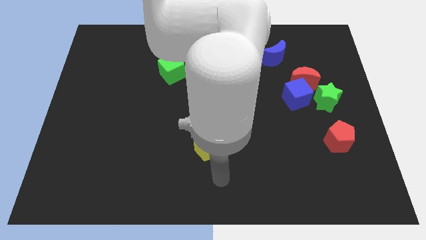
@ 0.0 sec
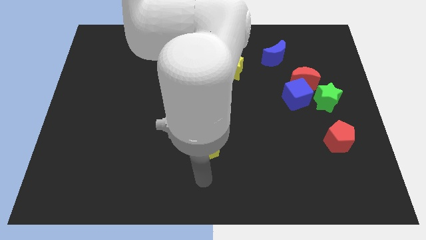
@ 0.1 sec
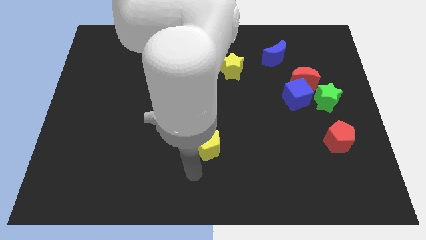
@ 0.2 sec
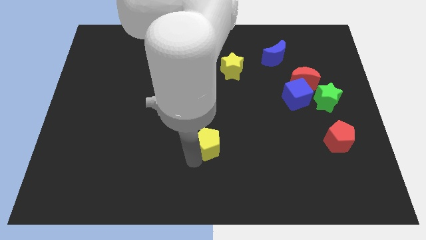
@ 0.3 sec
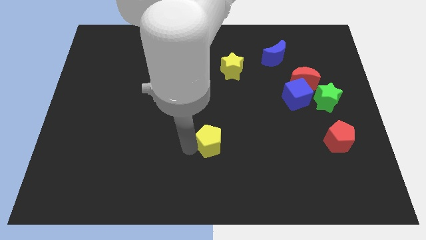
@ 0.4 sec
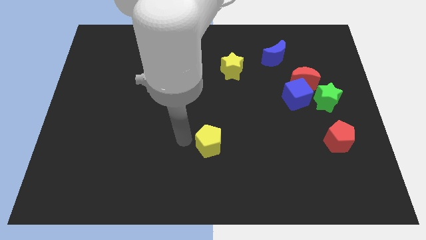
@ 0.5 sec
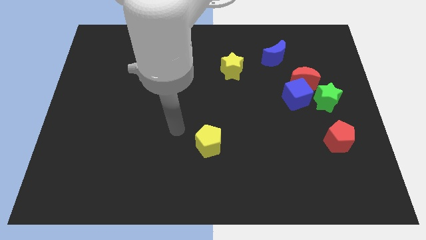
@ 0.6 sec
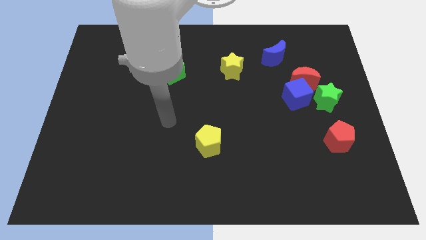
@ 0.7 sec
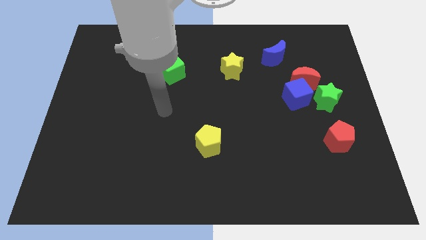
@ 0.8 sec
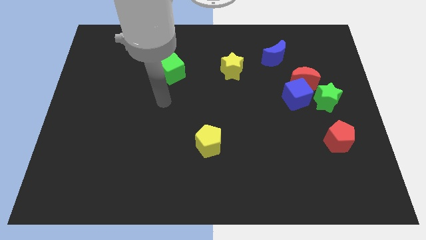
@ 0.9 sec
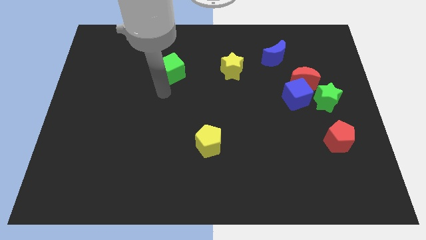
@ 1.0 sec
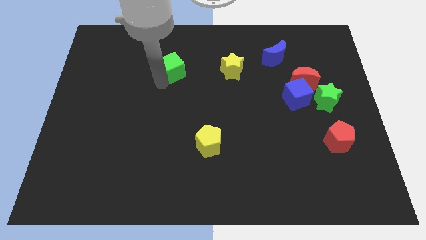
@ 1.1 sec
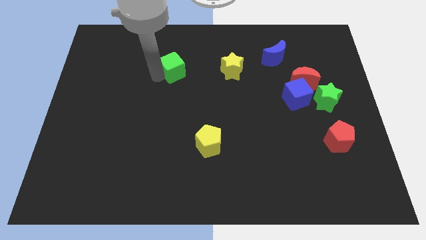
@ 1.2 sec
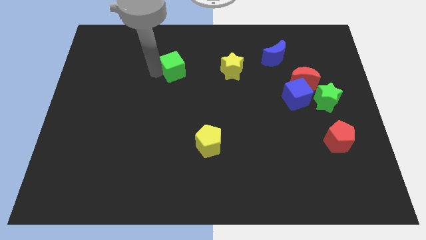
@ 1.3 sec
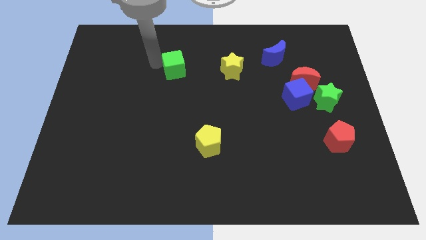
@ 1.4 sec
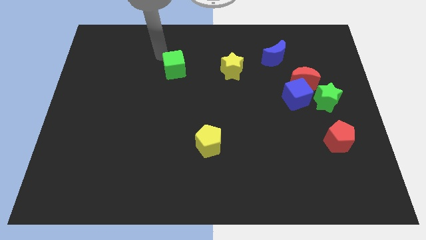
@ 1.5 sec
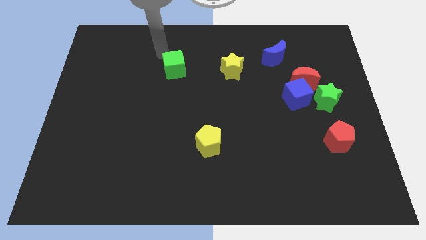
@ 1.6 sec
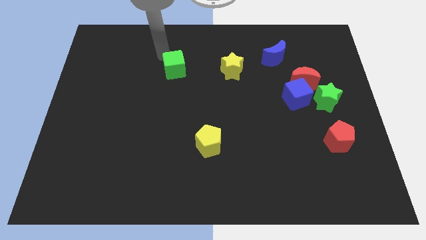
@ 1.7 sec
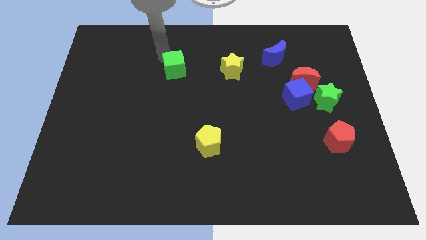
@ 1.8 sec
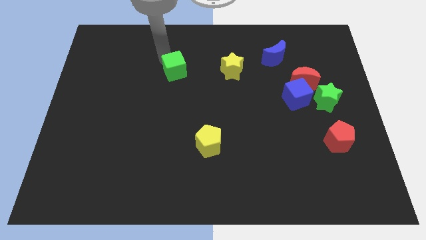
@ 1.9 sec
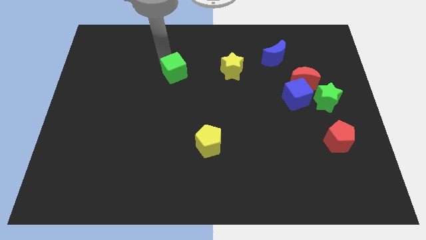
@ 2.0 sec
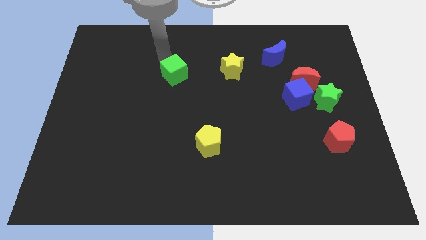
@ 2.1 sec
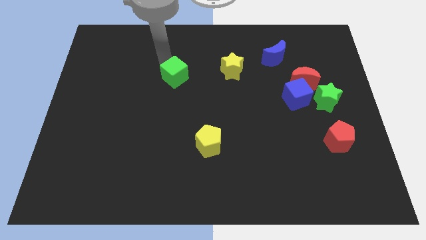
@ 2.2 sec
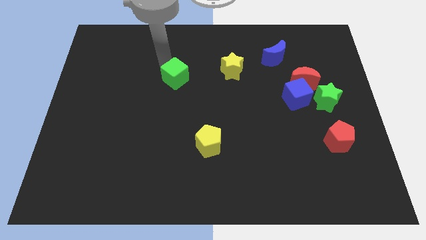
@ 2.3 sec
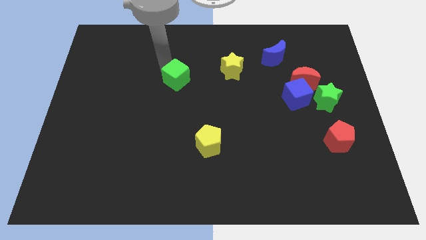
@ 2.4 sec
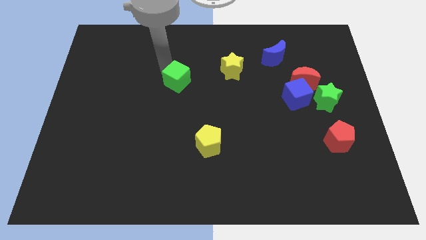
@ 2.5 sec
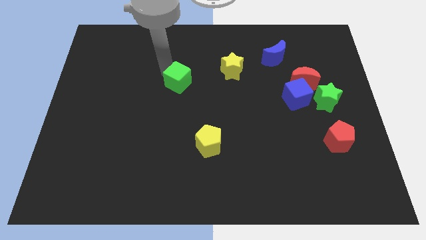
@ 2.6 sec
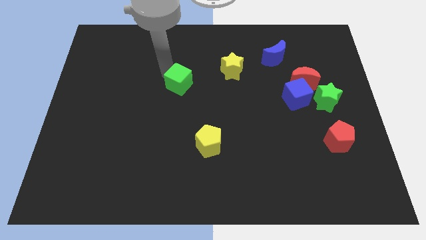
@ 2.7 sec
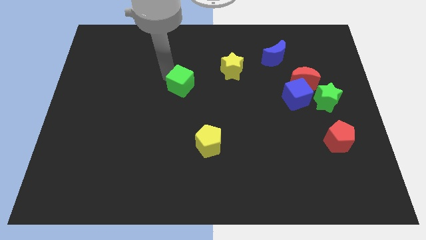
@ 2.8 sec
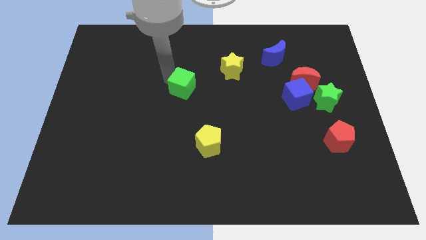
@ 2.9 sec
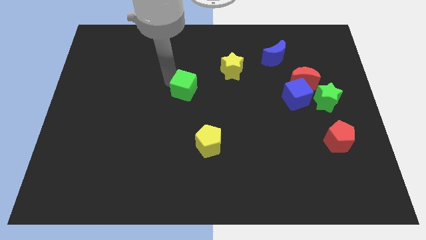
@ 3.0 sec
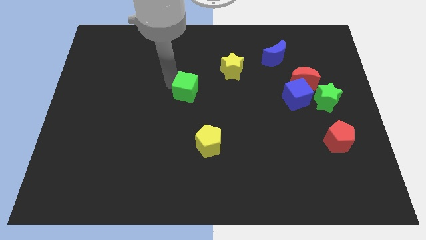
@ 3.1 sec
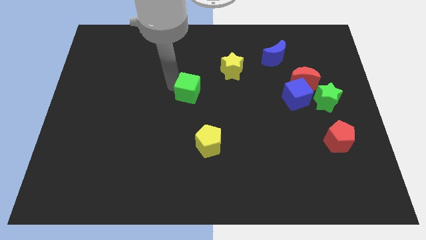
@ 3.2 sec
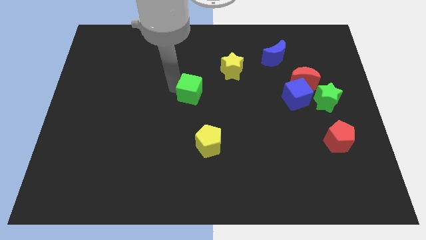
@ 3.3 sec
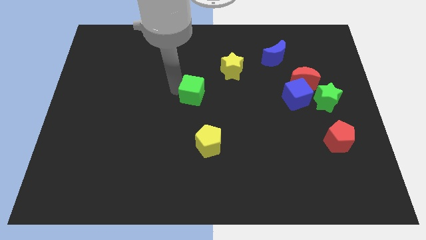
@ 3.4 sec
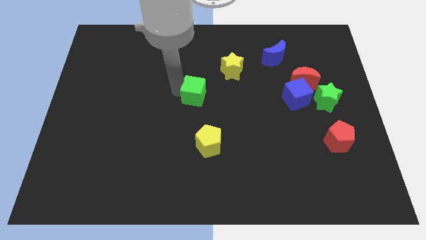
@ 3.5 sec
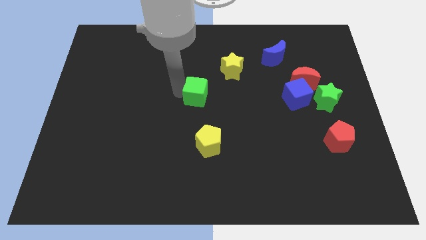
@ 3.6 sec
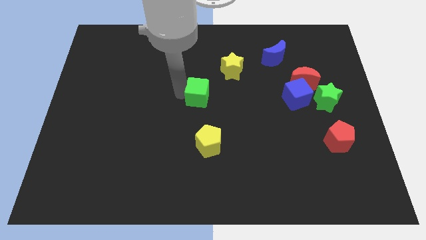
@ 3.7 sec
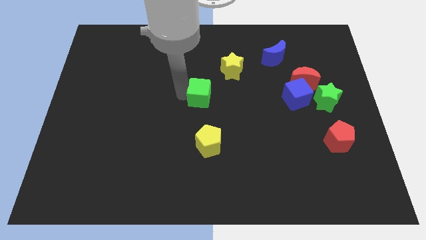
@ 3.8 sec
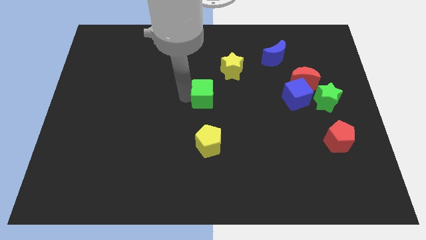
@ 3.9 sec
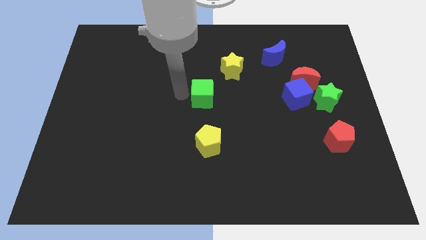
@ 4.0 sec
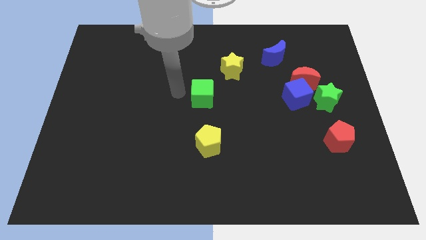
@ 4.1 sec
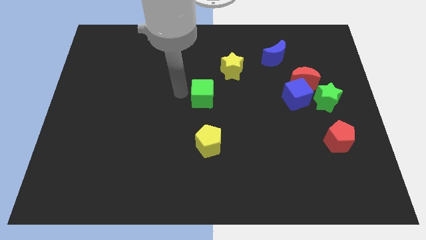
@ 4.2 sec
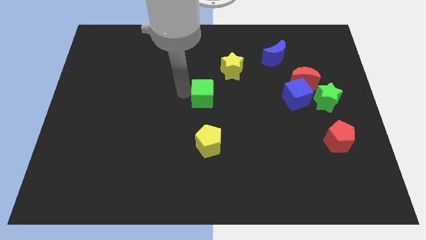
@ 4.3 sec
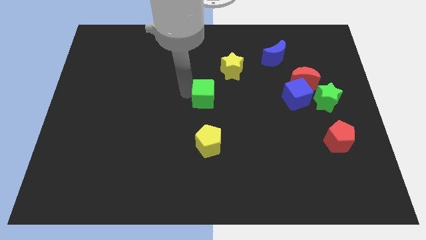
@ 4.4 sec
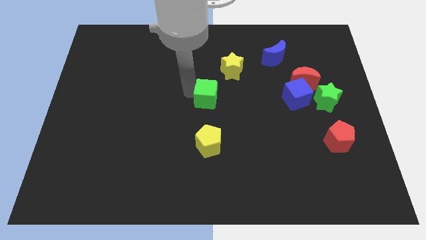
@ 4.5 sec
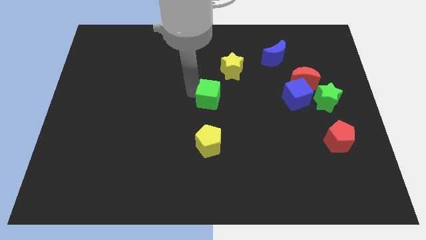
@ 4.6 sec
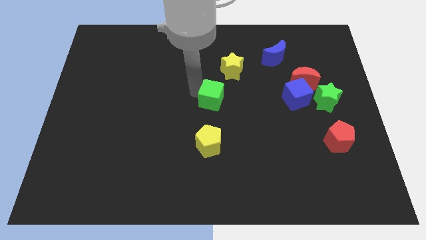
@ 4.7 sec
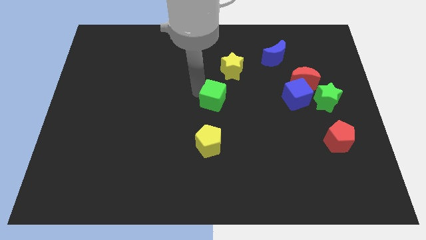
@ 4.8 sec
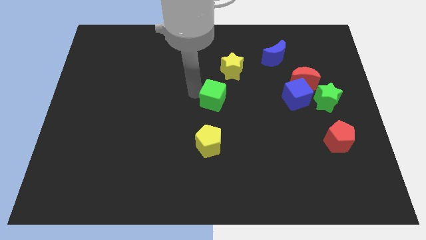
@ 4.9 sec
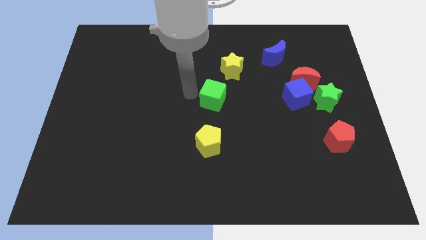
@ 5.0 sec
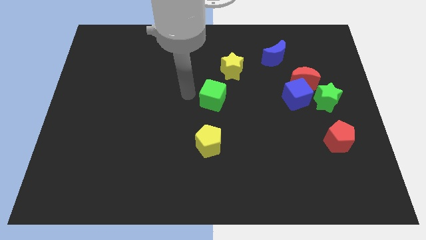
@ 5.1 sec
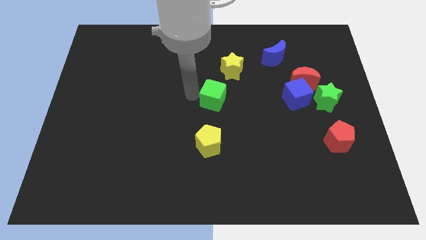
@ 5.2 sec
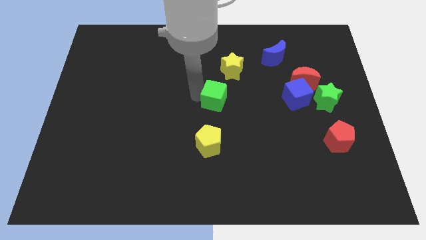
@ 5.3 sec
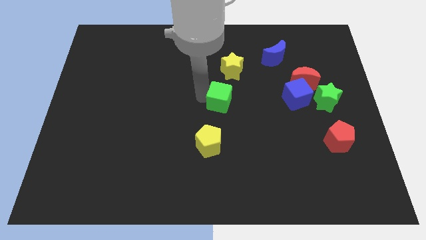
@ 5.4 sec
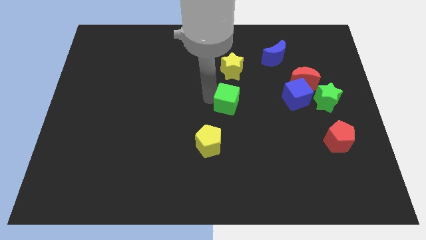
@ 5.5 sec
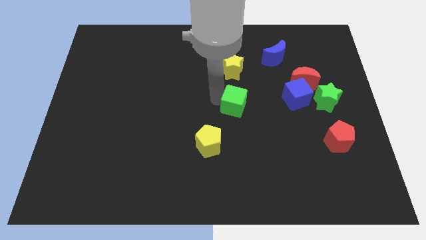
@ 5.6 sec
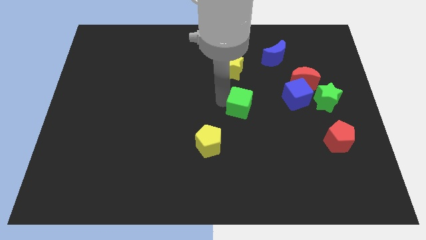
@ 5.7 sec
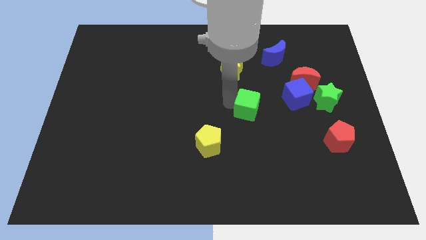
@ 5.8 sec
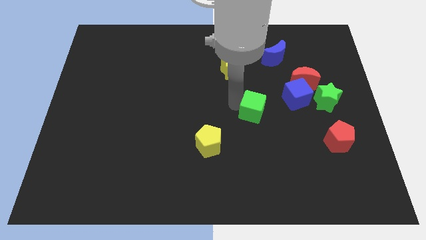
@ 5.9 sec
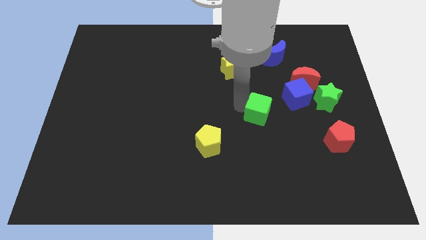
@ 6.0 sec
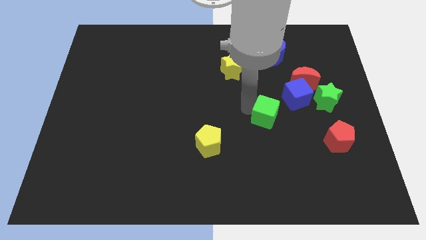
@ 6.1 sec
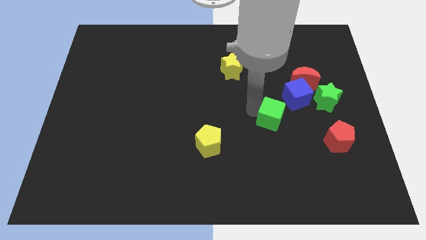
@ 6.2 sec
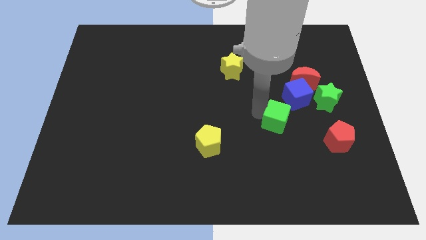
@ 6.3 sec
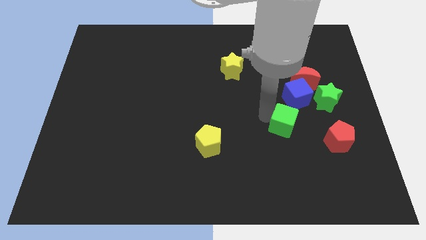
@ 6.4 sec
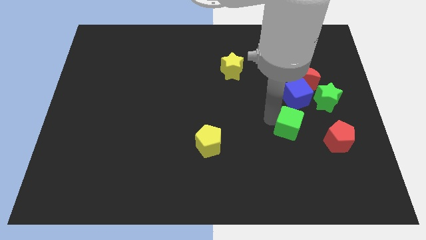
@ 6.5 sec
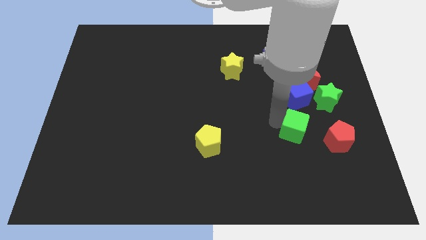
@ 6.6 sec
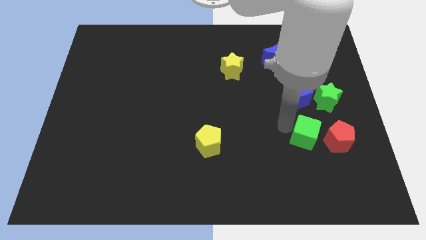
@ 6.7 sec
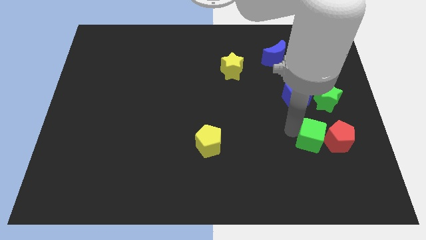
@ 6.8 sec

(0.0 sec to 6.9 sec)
slide the green cube next to the red pentagon
